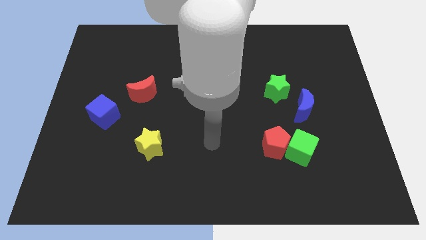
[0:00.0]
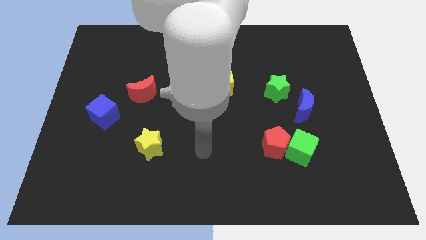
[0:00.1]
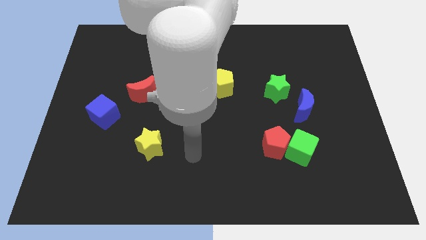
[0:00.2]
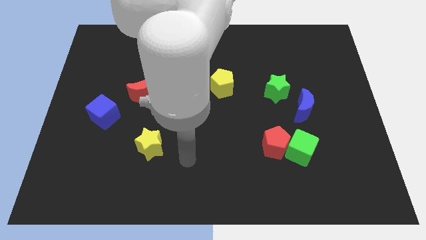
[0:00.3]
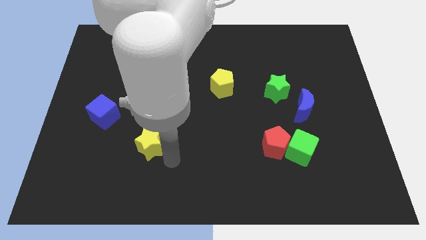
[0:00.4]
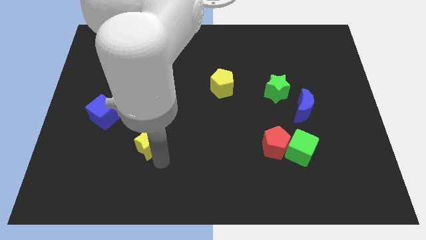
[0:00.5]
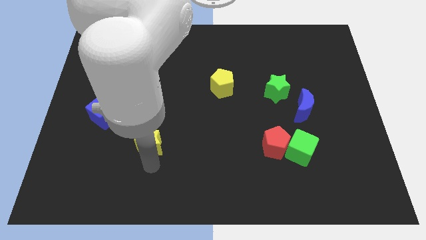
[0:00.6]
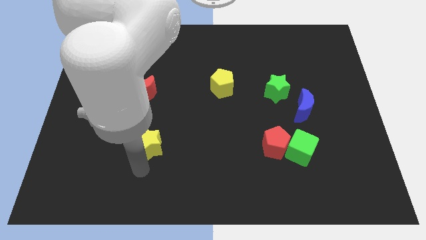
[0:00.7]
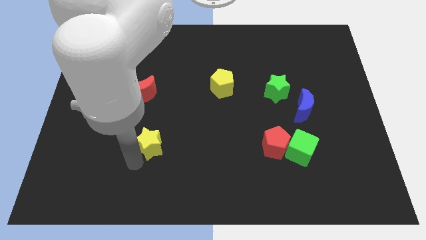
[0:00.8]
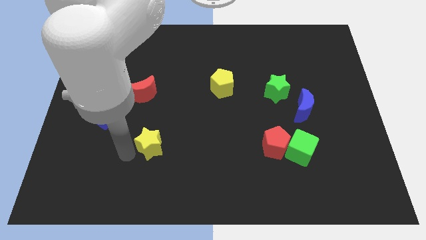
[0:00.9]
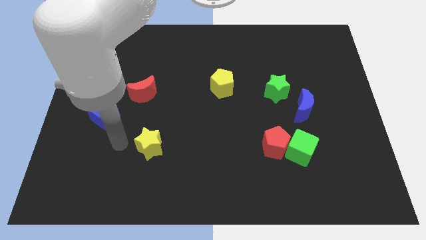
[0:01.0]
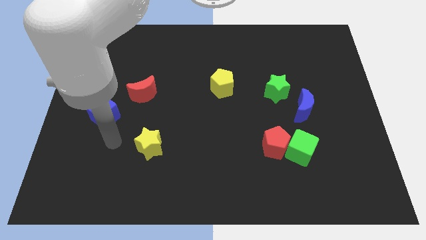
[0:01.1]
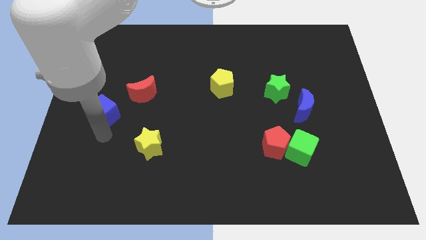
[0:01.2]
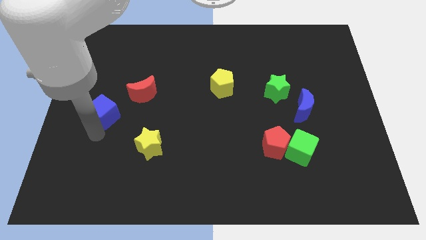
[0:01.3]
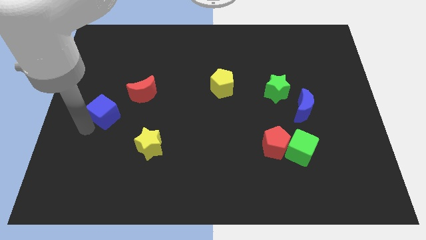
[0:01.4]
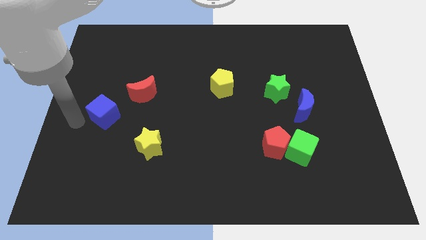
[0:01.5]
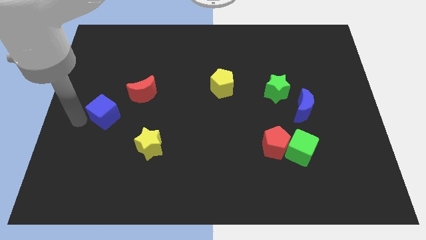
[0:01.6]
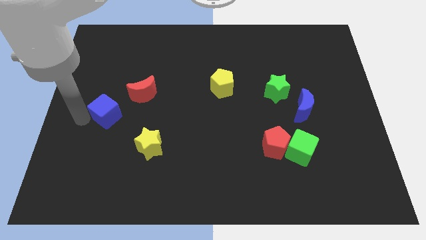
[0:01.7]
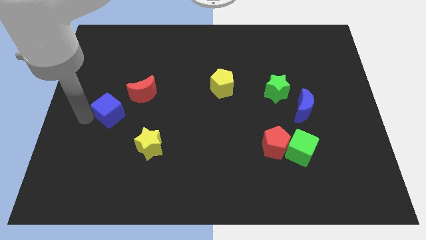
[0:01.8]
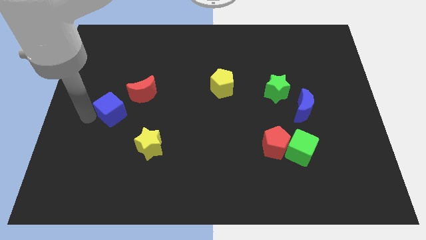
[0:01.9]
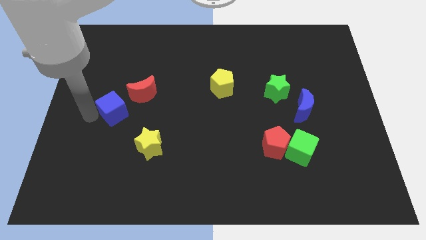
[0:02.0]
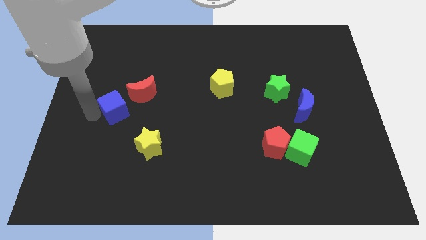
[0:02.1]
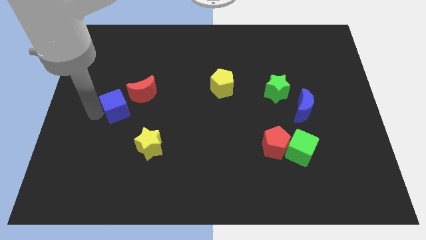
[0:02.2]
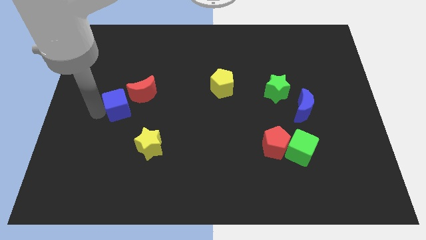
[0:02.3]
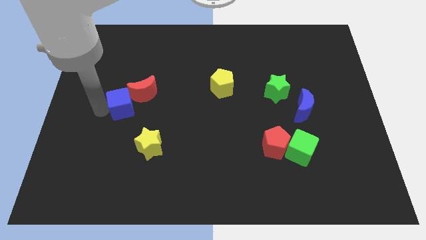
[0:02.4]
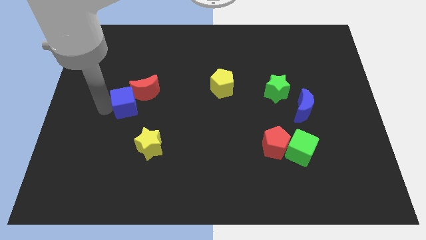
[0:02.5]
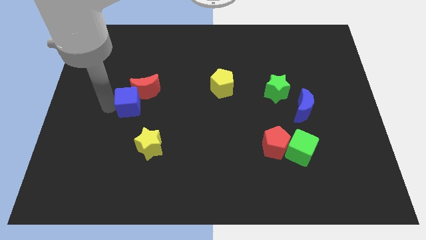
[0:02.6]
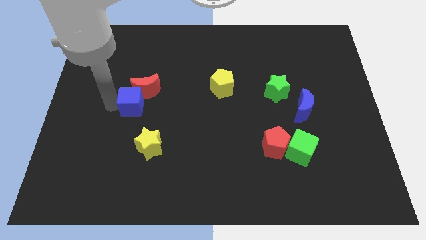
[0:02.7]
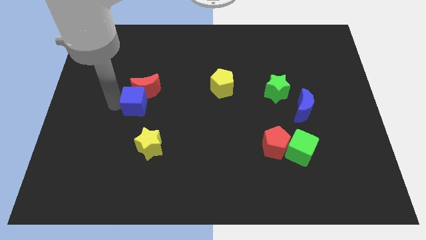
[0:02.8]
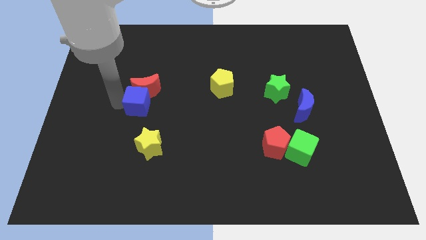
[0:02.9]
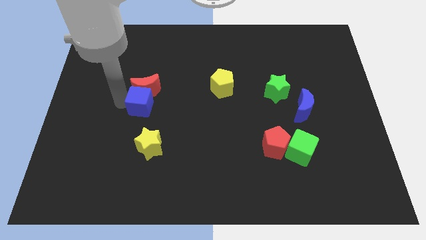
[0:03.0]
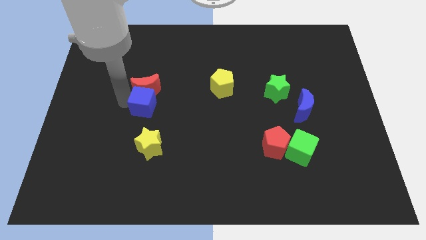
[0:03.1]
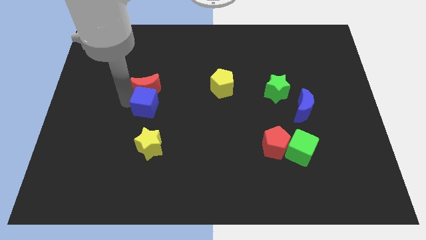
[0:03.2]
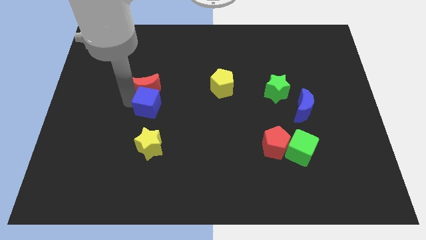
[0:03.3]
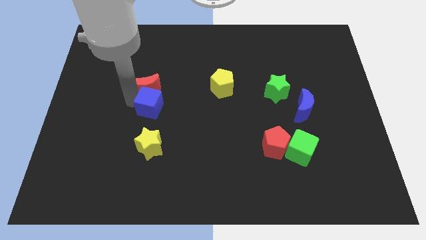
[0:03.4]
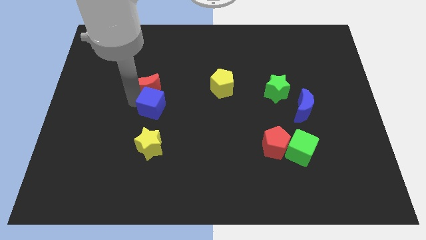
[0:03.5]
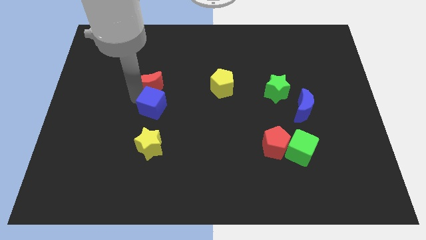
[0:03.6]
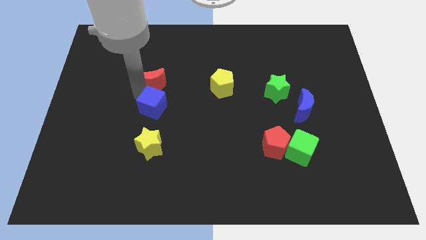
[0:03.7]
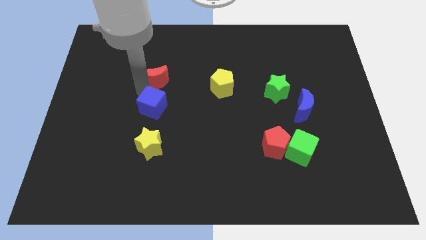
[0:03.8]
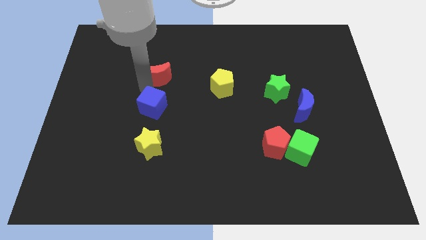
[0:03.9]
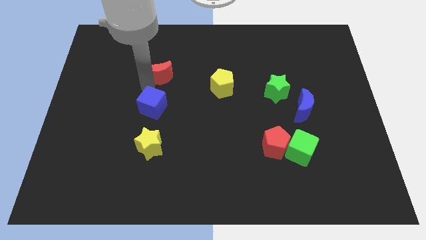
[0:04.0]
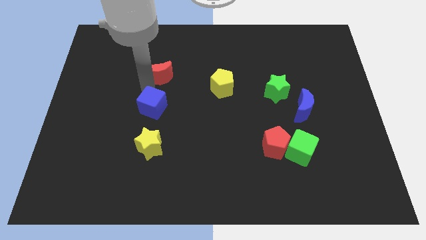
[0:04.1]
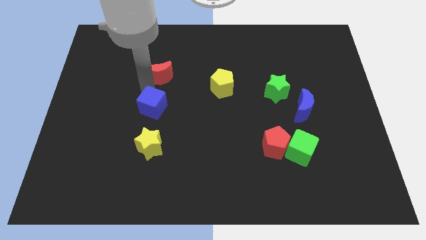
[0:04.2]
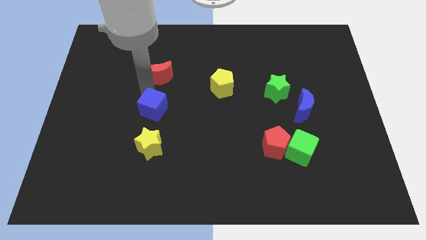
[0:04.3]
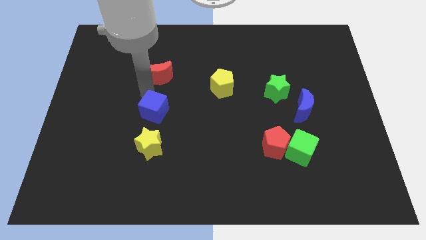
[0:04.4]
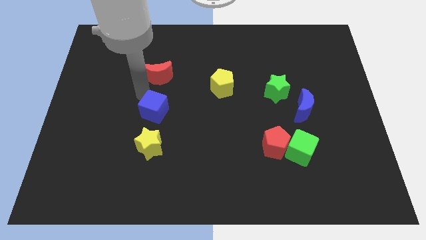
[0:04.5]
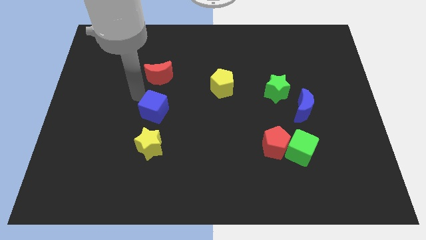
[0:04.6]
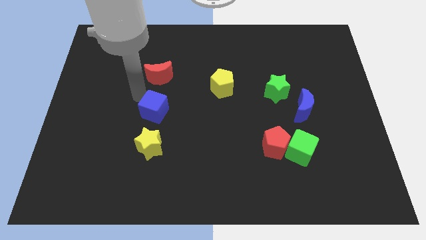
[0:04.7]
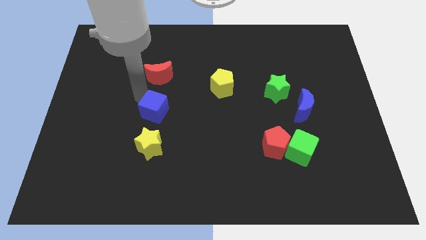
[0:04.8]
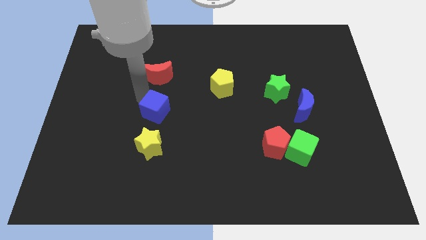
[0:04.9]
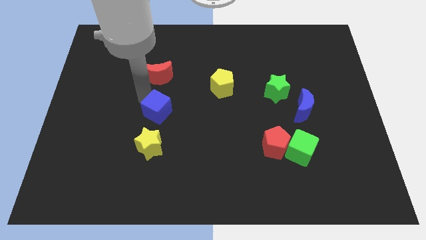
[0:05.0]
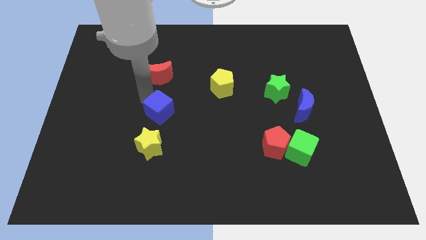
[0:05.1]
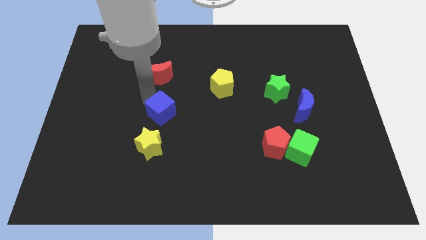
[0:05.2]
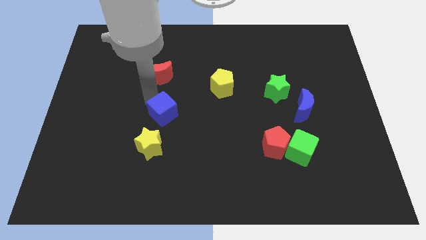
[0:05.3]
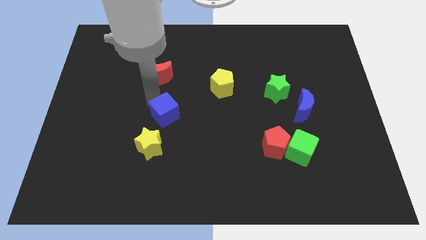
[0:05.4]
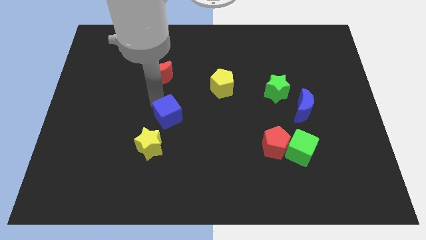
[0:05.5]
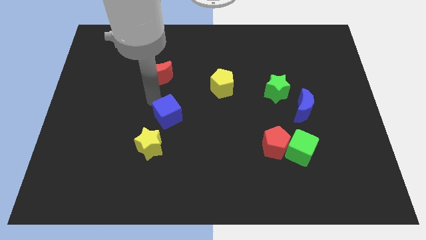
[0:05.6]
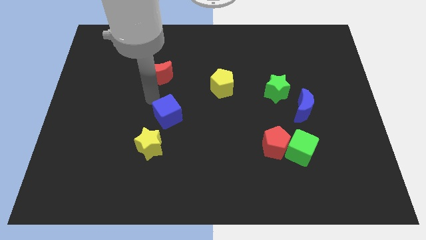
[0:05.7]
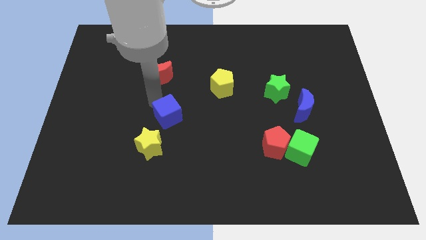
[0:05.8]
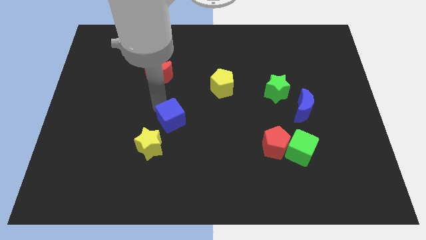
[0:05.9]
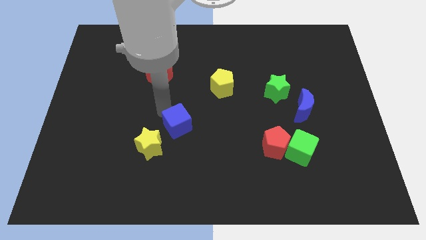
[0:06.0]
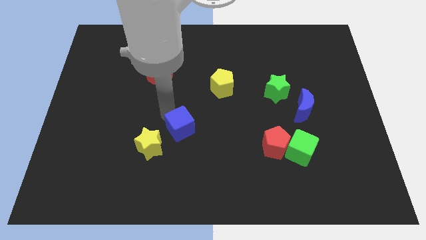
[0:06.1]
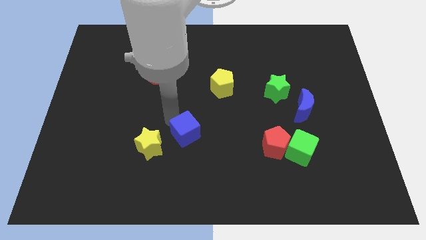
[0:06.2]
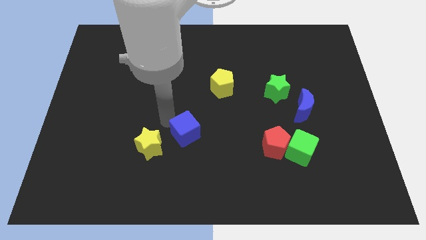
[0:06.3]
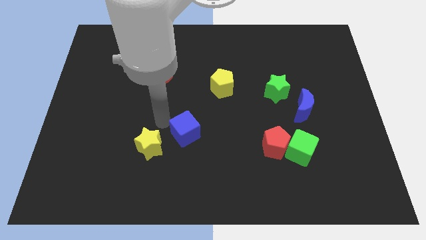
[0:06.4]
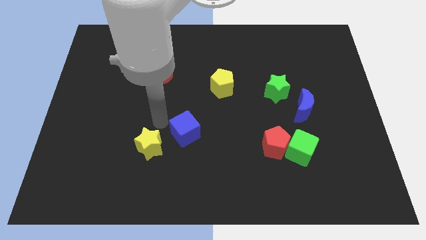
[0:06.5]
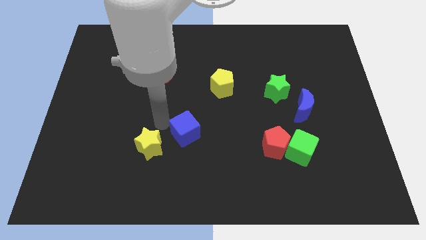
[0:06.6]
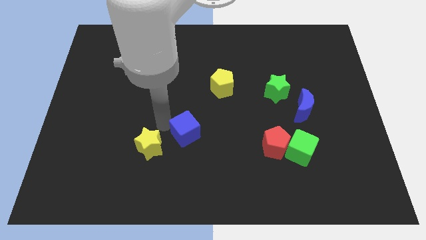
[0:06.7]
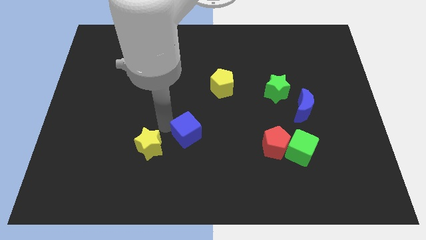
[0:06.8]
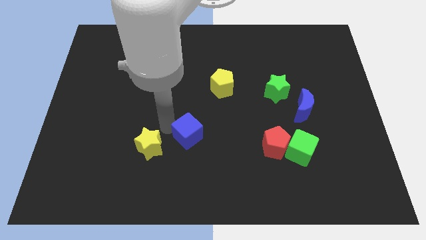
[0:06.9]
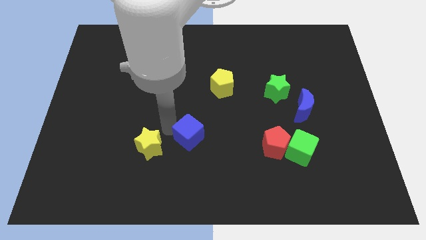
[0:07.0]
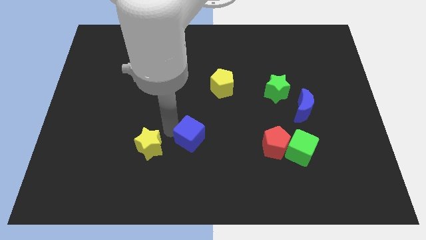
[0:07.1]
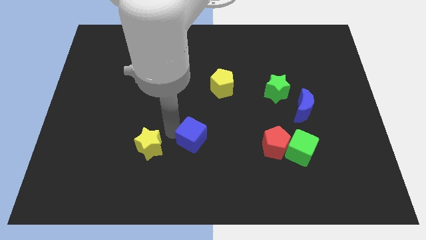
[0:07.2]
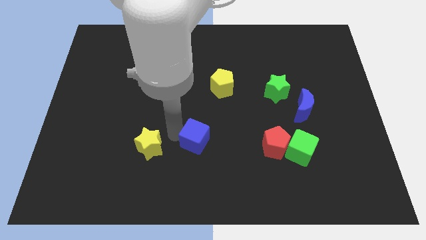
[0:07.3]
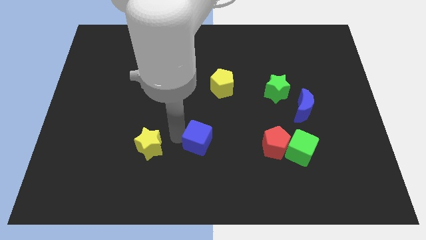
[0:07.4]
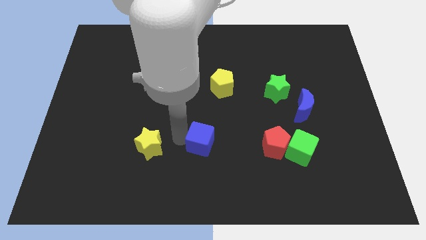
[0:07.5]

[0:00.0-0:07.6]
move the blue cube left of the red pentagon
